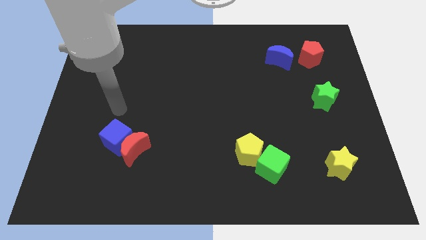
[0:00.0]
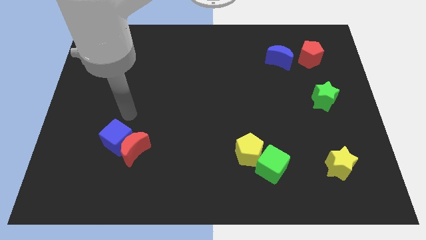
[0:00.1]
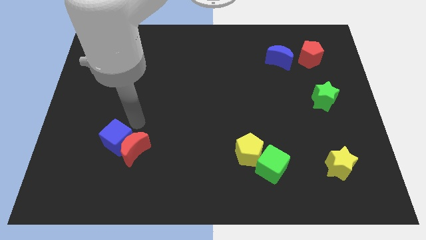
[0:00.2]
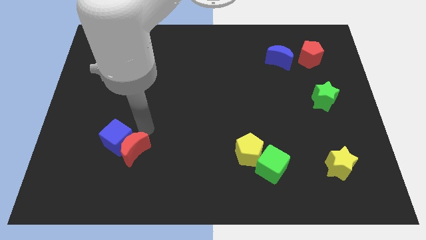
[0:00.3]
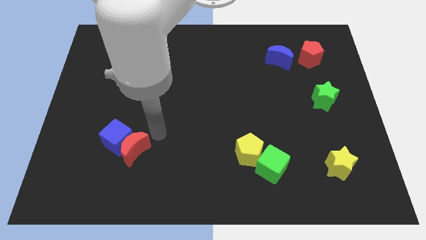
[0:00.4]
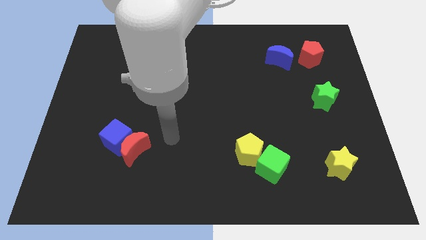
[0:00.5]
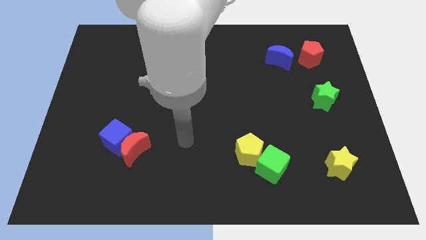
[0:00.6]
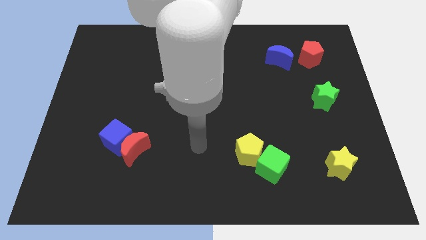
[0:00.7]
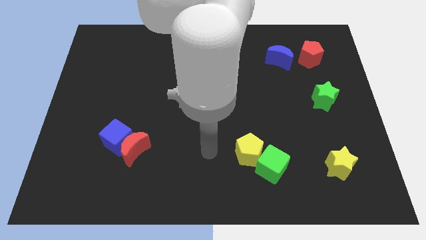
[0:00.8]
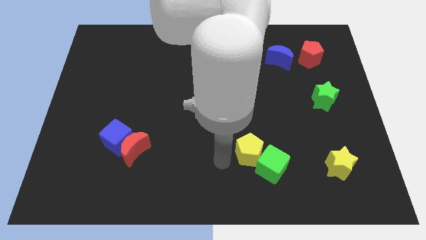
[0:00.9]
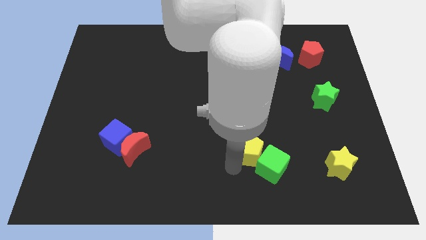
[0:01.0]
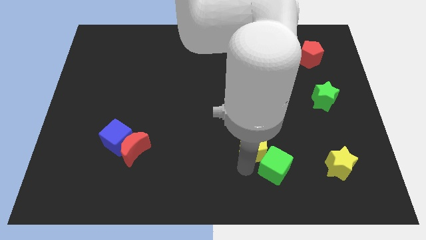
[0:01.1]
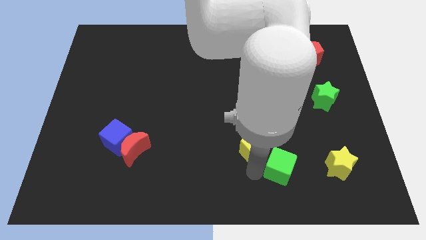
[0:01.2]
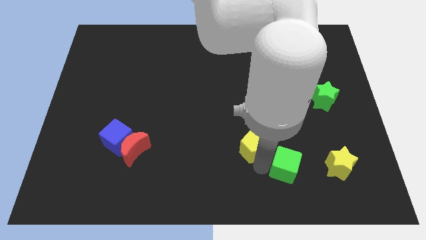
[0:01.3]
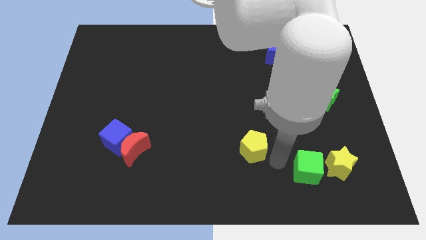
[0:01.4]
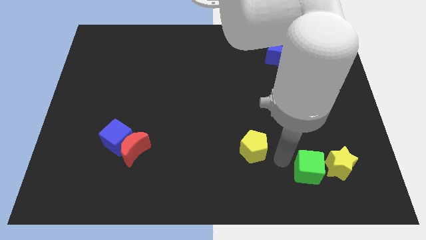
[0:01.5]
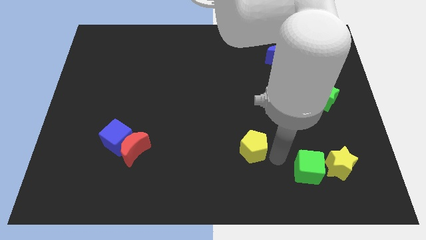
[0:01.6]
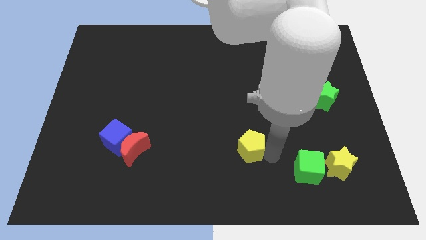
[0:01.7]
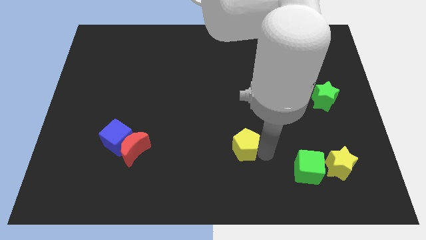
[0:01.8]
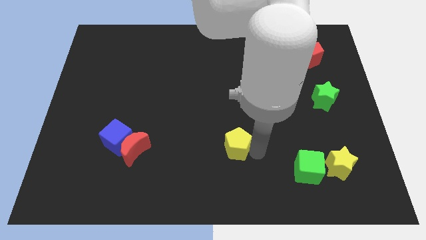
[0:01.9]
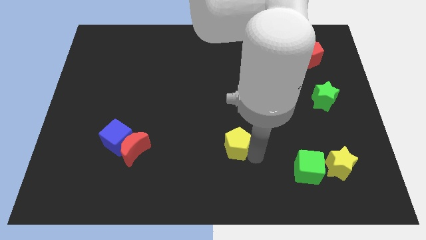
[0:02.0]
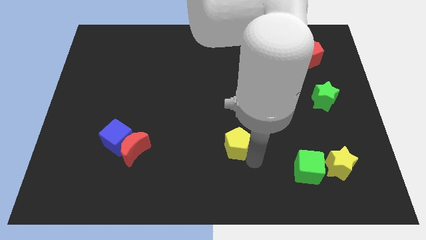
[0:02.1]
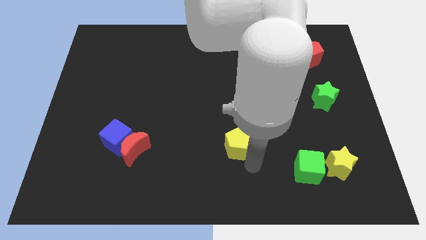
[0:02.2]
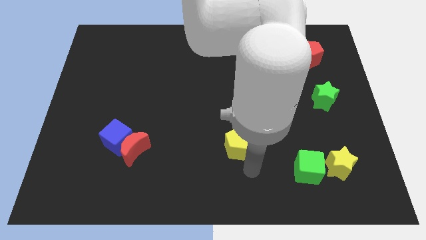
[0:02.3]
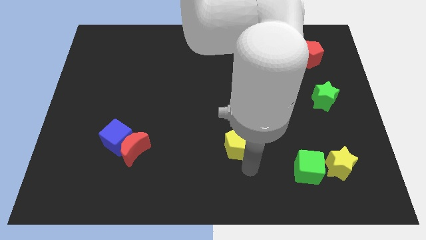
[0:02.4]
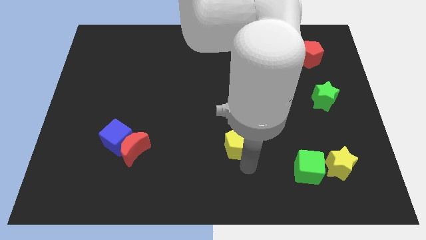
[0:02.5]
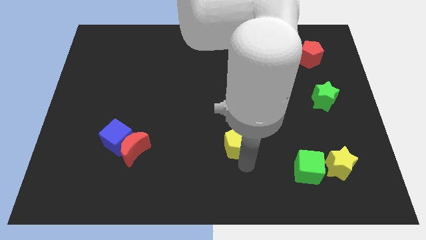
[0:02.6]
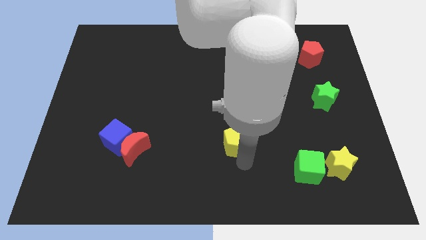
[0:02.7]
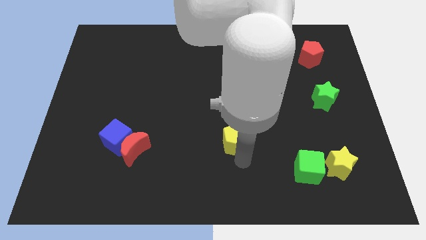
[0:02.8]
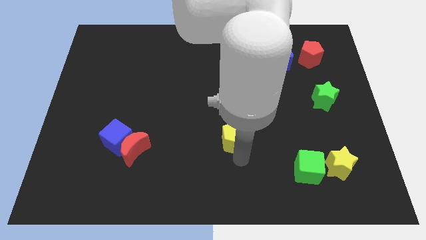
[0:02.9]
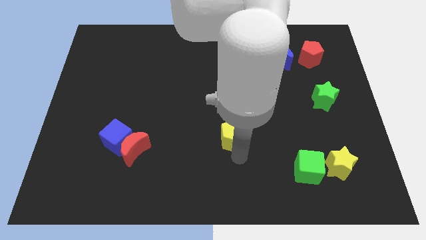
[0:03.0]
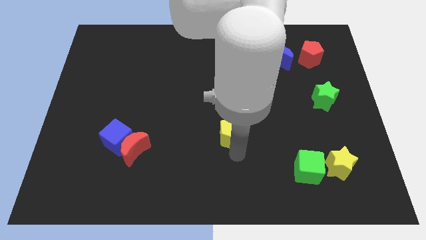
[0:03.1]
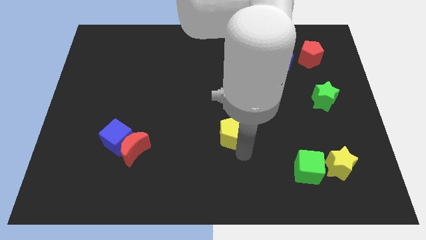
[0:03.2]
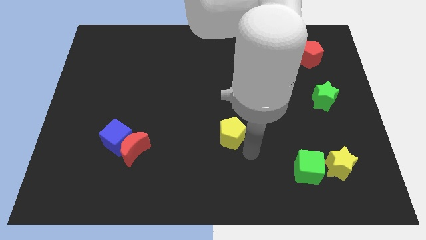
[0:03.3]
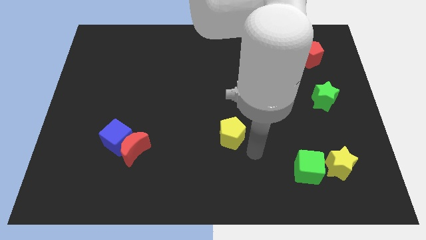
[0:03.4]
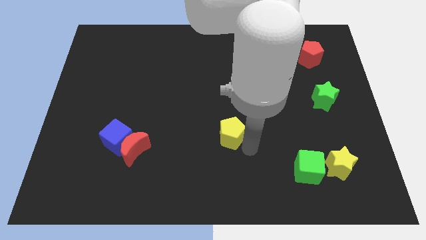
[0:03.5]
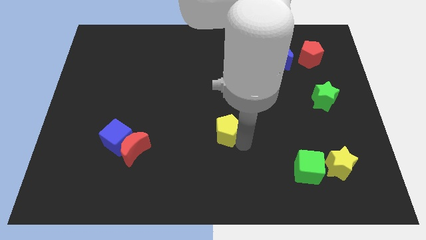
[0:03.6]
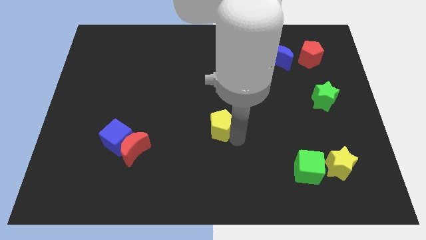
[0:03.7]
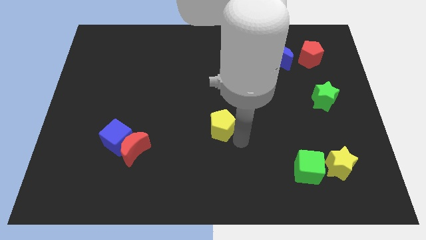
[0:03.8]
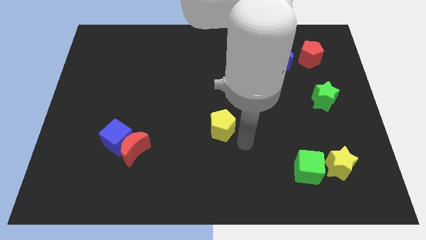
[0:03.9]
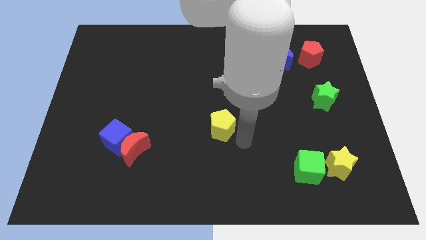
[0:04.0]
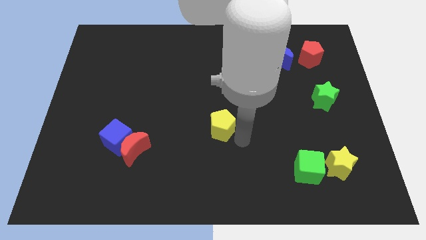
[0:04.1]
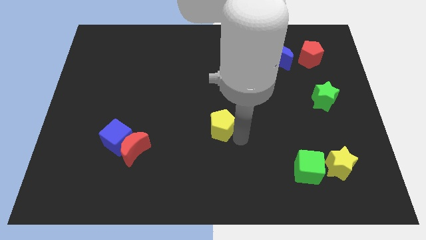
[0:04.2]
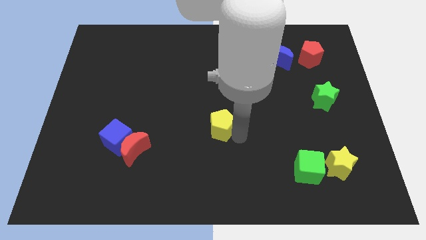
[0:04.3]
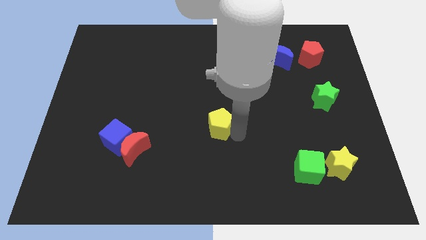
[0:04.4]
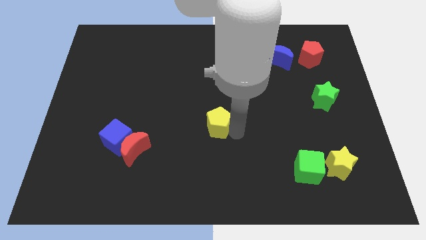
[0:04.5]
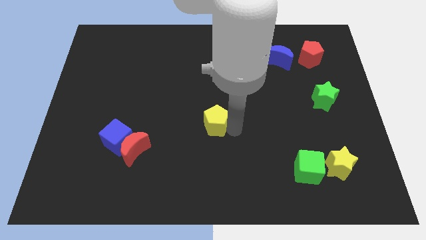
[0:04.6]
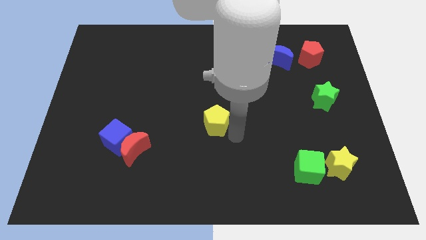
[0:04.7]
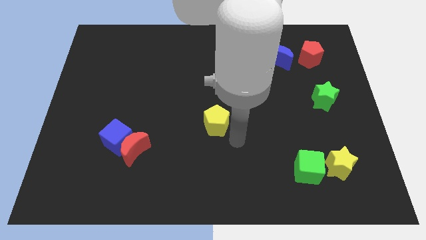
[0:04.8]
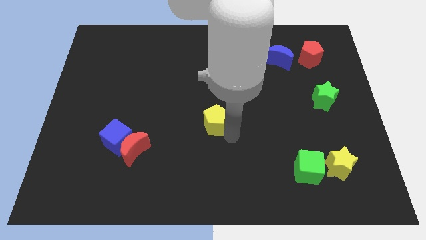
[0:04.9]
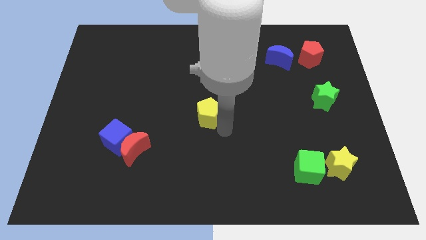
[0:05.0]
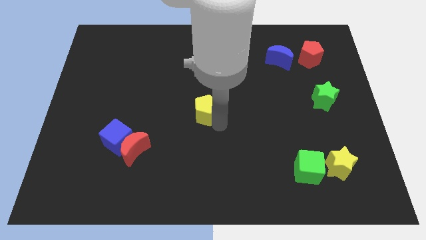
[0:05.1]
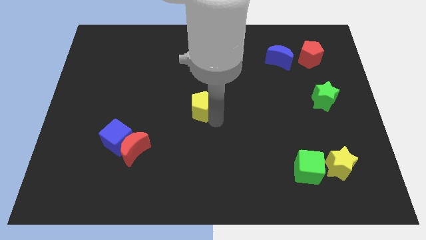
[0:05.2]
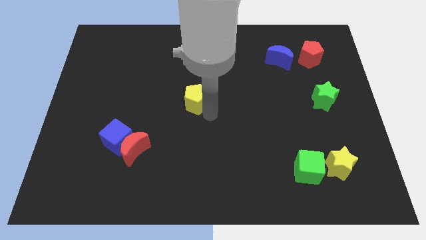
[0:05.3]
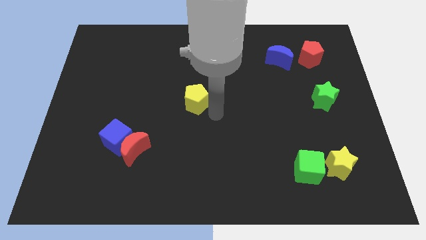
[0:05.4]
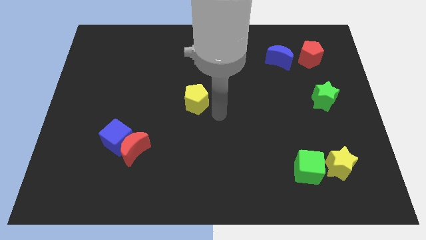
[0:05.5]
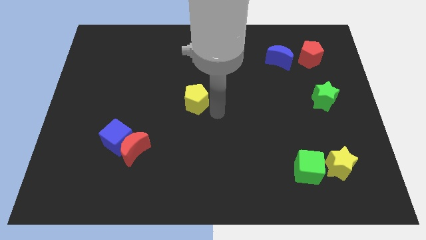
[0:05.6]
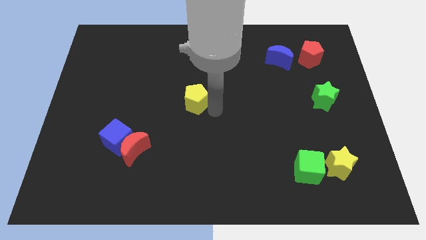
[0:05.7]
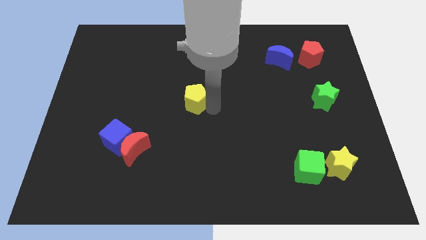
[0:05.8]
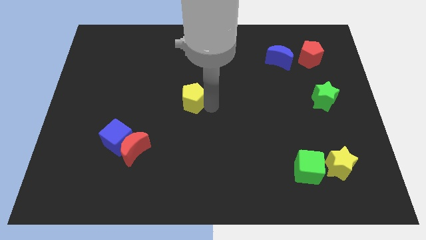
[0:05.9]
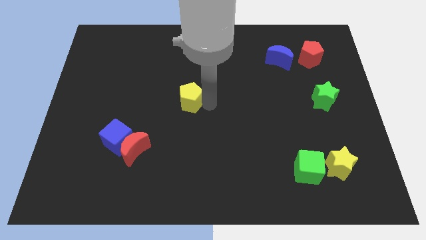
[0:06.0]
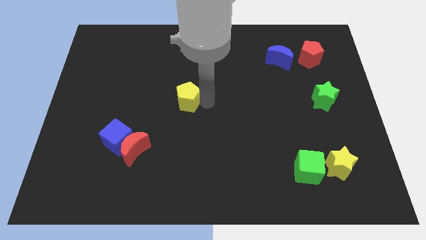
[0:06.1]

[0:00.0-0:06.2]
slide the yellow pentagon upwards and to the left diagonally

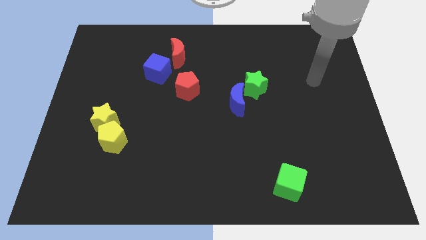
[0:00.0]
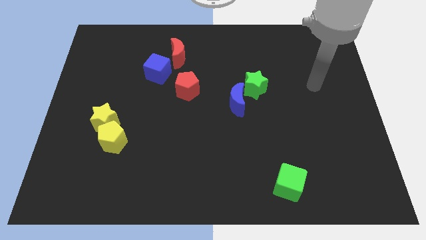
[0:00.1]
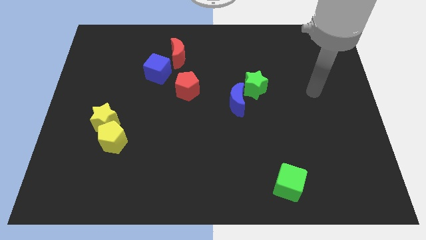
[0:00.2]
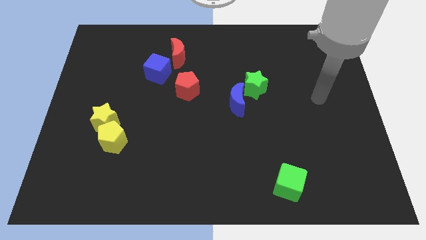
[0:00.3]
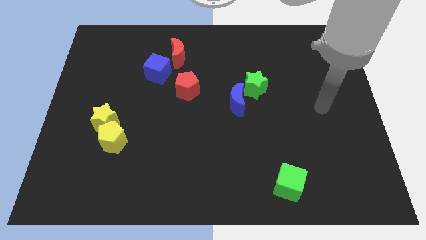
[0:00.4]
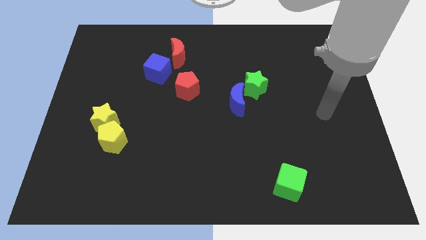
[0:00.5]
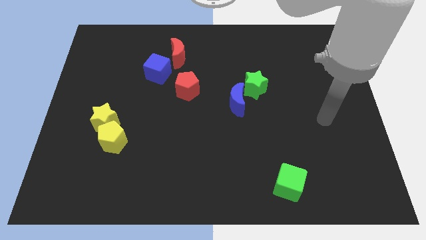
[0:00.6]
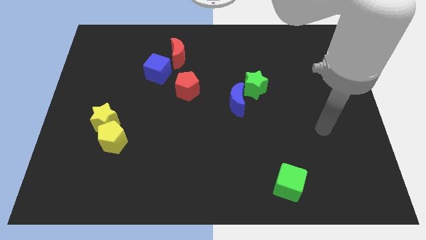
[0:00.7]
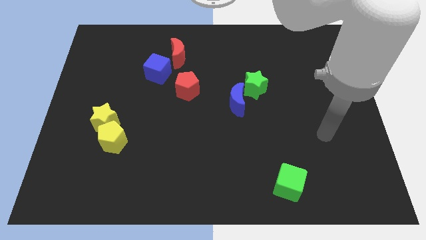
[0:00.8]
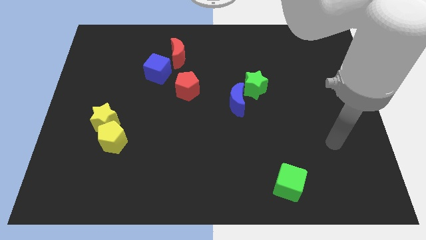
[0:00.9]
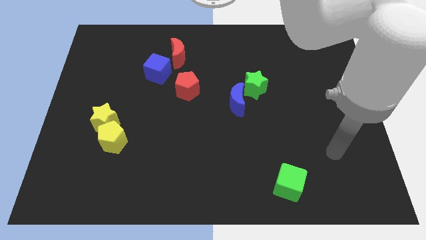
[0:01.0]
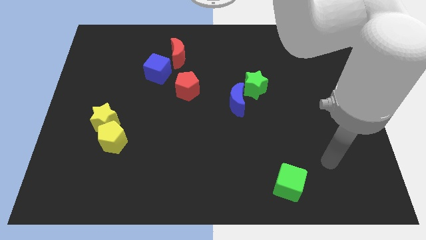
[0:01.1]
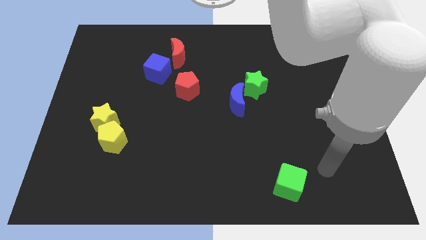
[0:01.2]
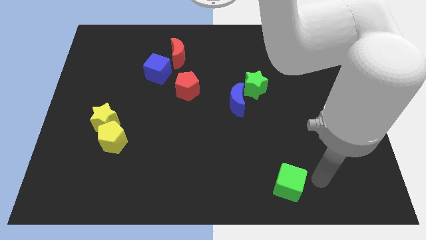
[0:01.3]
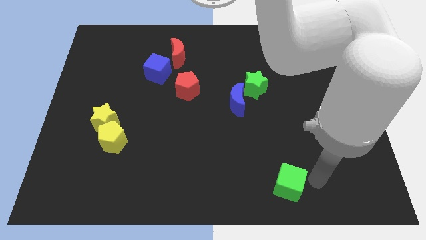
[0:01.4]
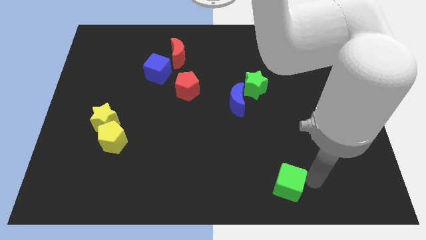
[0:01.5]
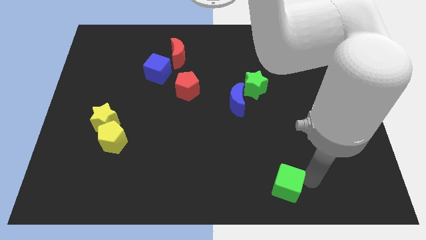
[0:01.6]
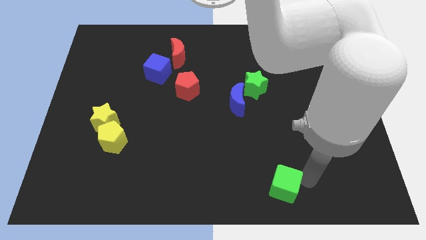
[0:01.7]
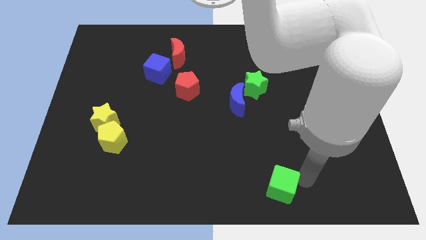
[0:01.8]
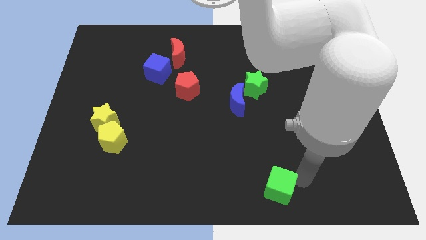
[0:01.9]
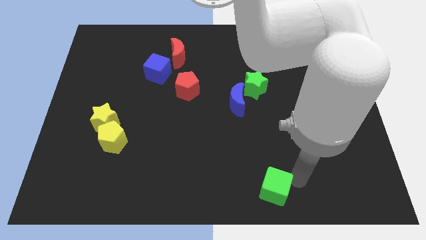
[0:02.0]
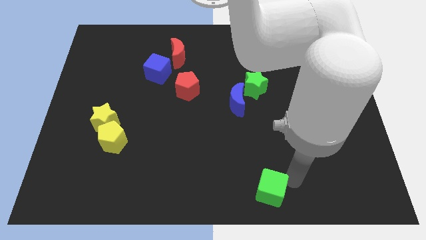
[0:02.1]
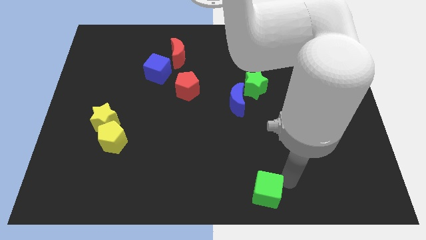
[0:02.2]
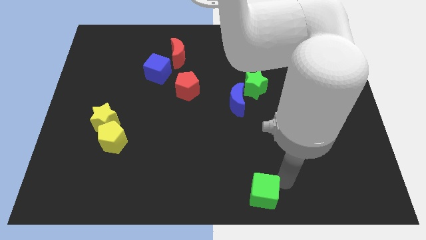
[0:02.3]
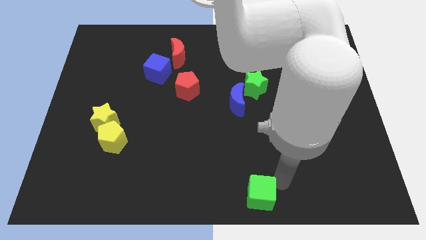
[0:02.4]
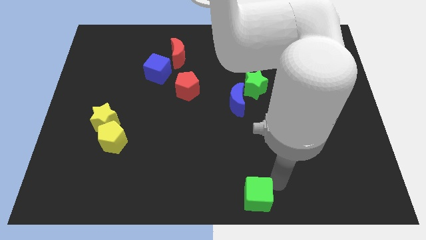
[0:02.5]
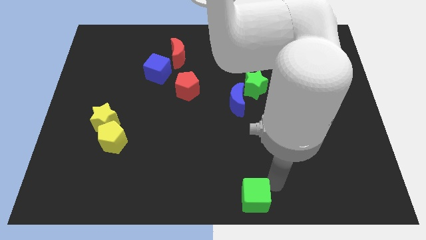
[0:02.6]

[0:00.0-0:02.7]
slide the green cube slightly left
